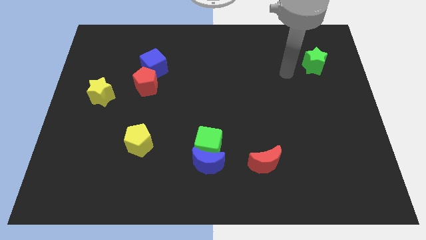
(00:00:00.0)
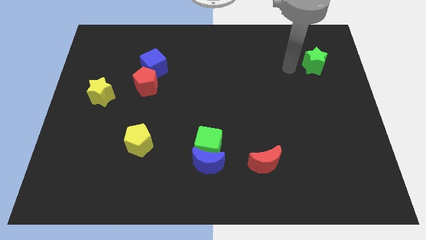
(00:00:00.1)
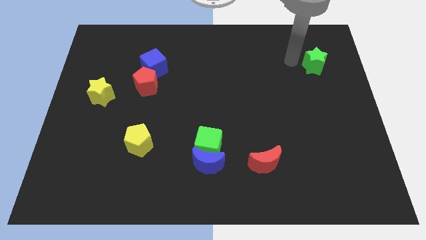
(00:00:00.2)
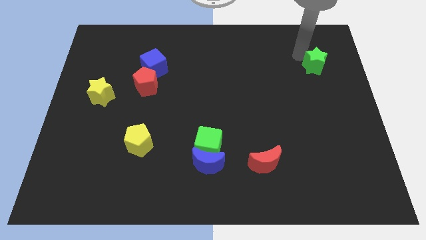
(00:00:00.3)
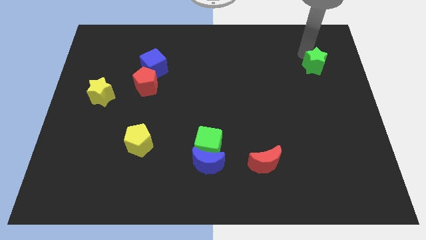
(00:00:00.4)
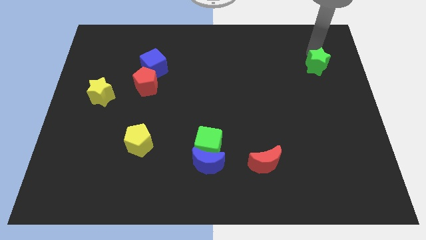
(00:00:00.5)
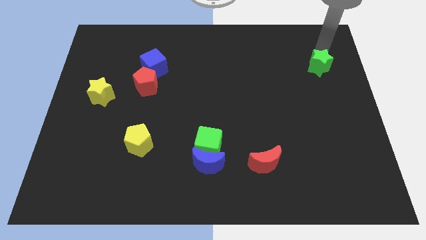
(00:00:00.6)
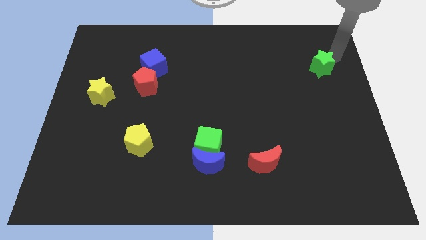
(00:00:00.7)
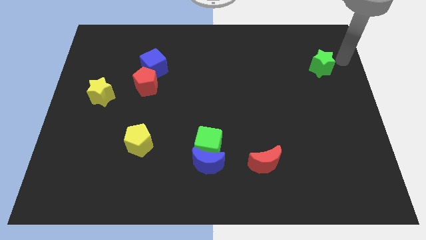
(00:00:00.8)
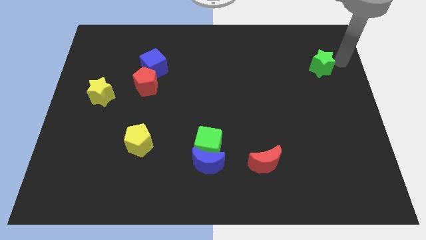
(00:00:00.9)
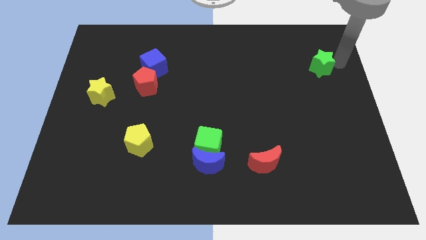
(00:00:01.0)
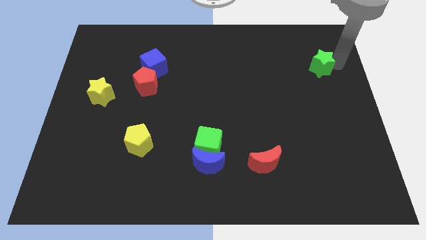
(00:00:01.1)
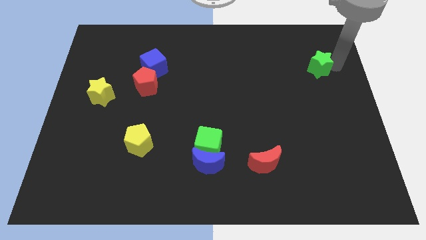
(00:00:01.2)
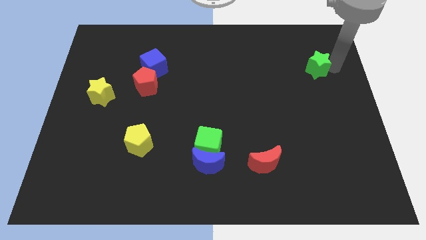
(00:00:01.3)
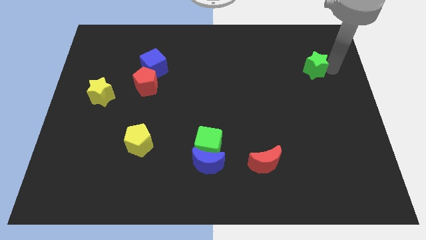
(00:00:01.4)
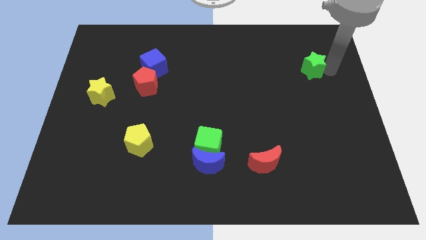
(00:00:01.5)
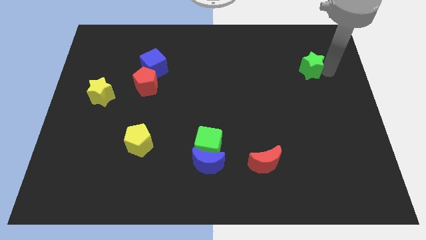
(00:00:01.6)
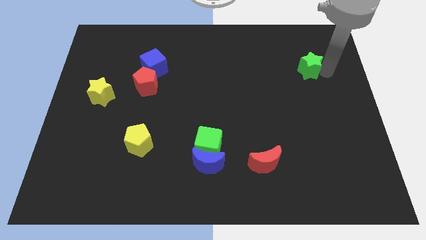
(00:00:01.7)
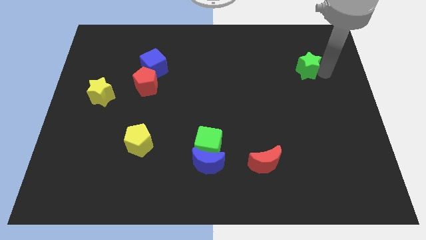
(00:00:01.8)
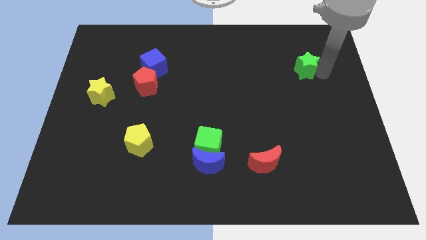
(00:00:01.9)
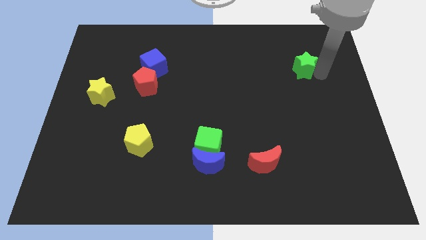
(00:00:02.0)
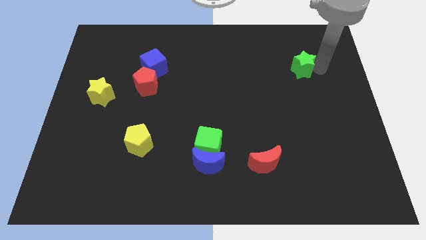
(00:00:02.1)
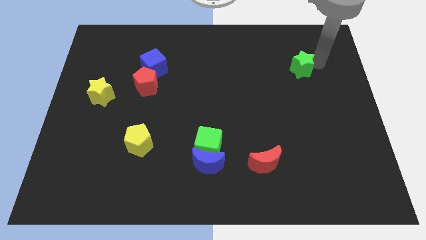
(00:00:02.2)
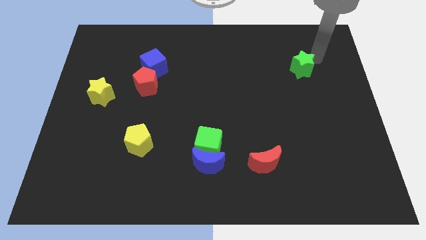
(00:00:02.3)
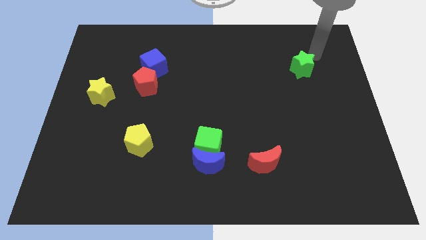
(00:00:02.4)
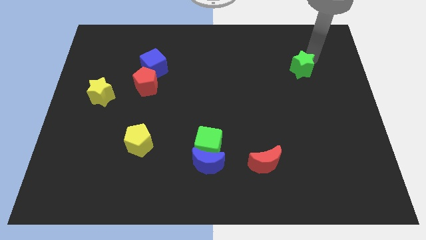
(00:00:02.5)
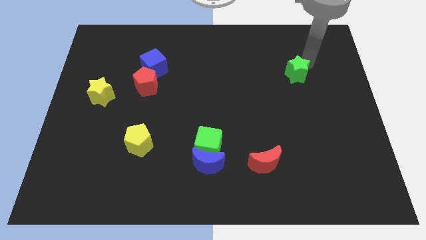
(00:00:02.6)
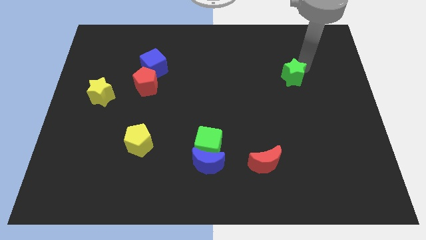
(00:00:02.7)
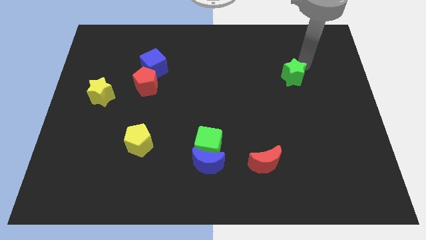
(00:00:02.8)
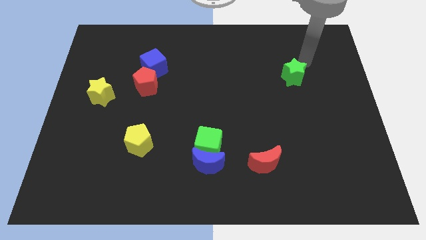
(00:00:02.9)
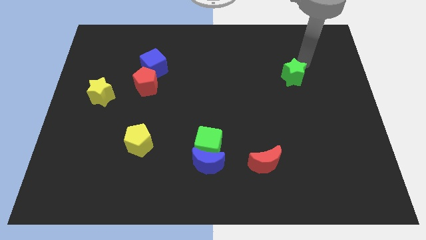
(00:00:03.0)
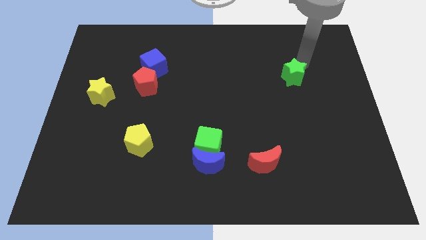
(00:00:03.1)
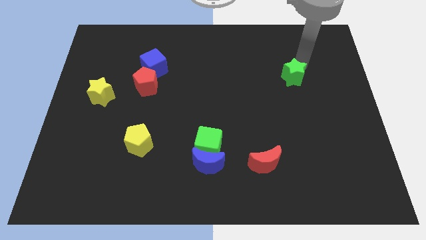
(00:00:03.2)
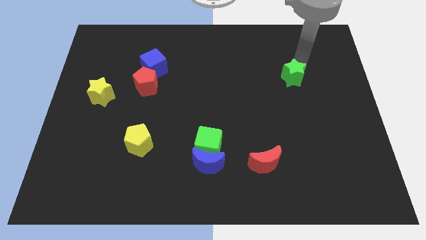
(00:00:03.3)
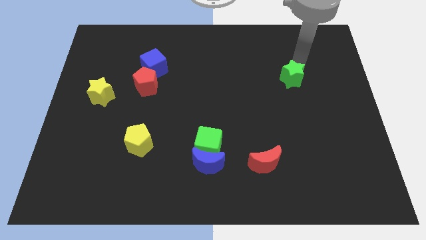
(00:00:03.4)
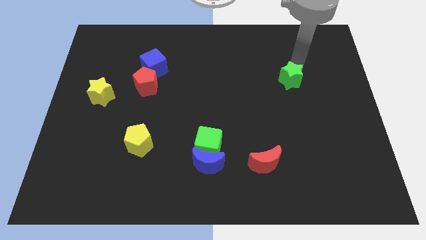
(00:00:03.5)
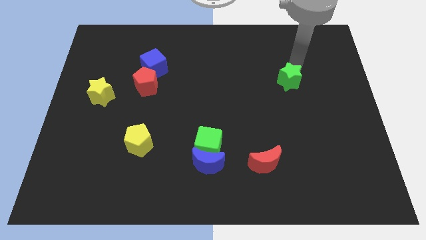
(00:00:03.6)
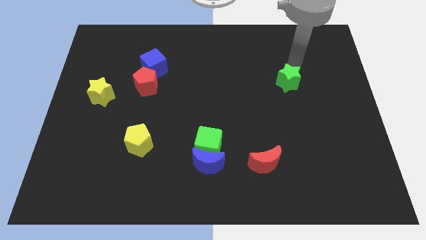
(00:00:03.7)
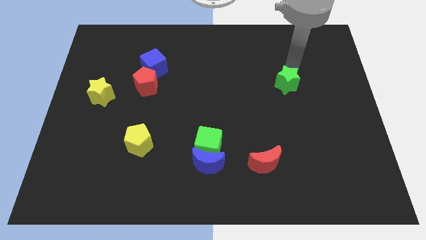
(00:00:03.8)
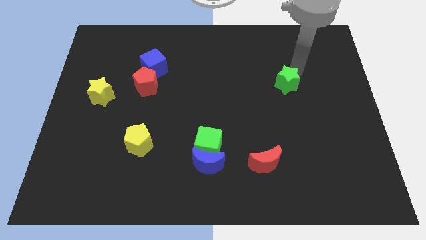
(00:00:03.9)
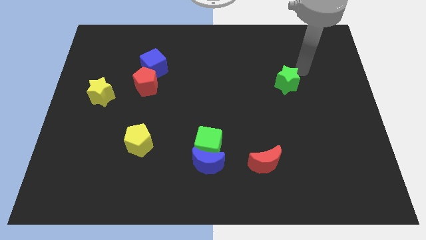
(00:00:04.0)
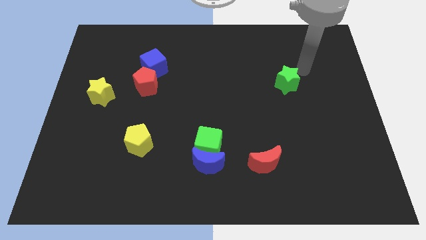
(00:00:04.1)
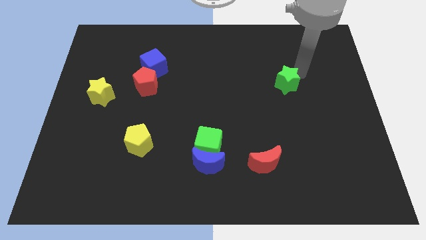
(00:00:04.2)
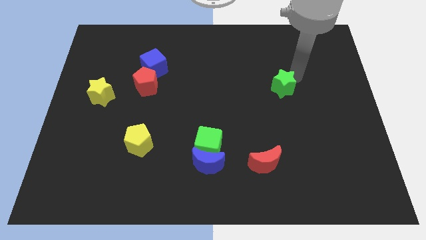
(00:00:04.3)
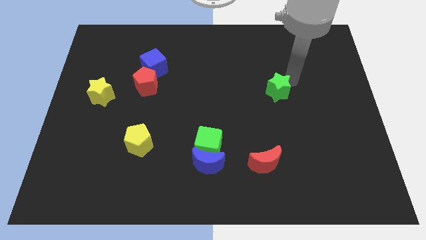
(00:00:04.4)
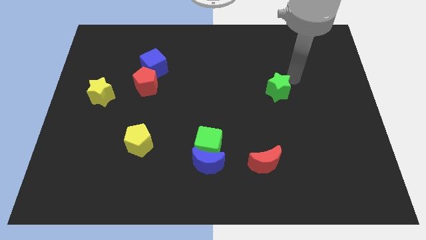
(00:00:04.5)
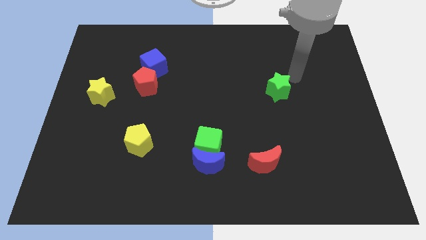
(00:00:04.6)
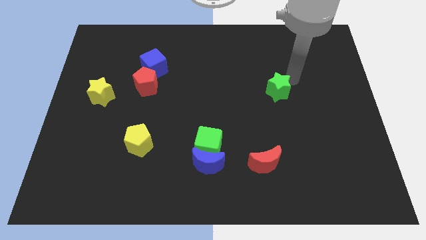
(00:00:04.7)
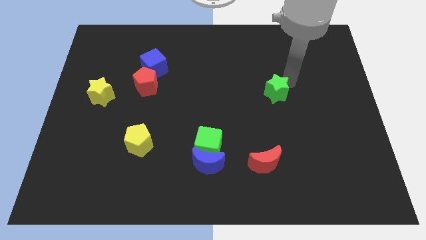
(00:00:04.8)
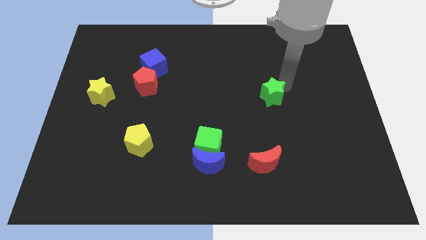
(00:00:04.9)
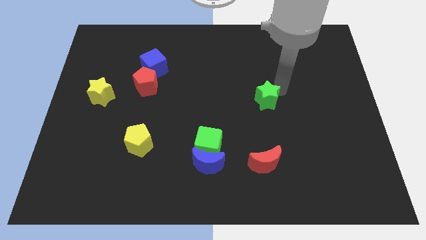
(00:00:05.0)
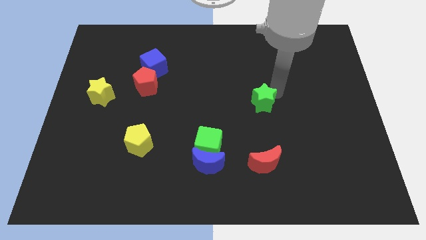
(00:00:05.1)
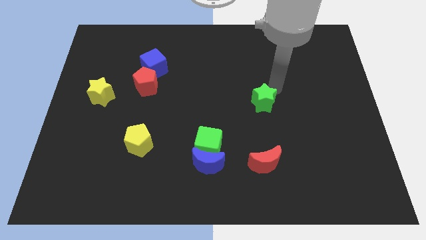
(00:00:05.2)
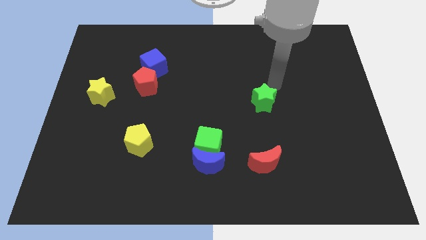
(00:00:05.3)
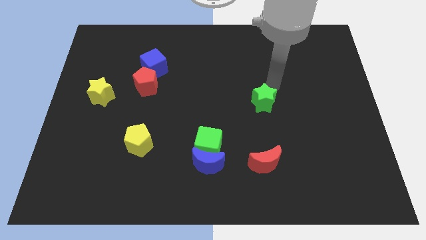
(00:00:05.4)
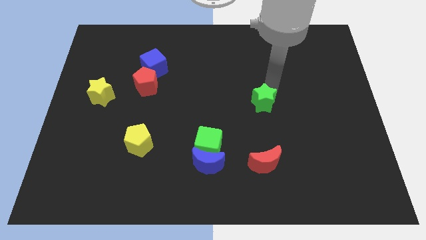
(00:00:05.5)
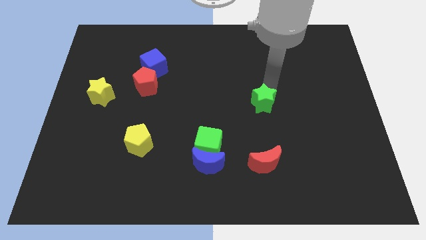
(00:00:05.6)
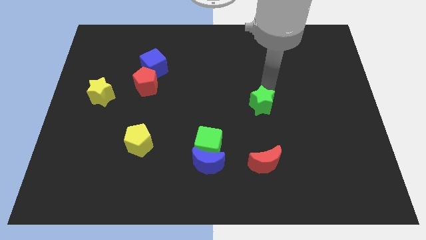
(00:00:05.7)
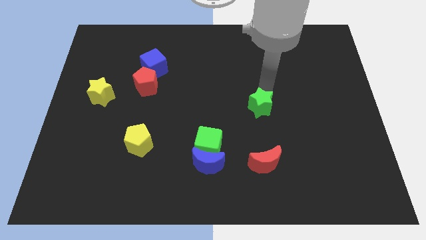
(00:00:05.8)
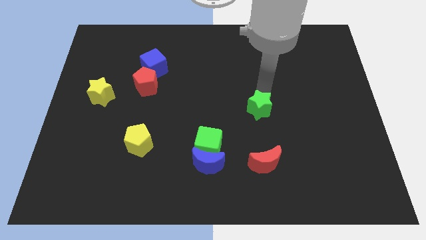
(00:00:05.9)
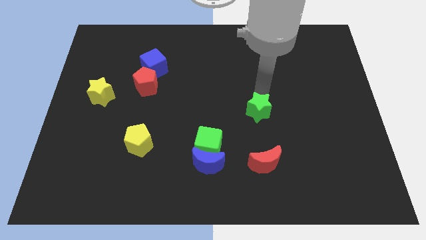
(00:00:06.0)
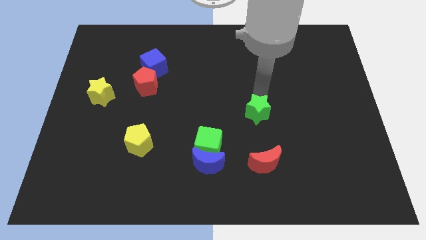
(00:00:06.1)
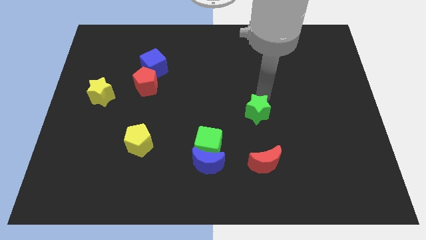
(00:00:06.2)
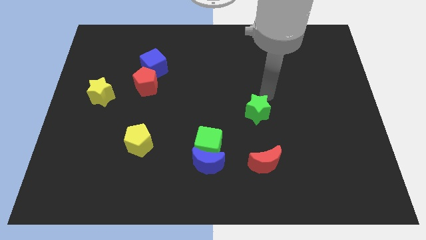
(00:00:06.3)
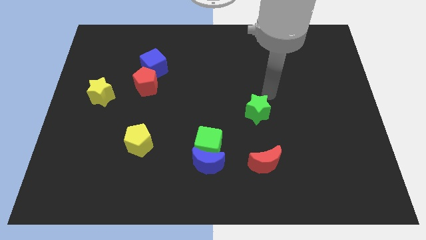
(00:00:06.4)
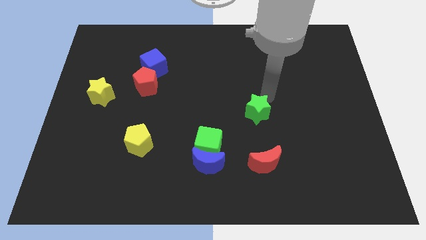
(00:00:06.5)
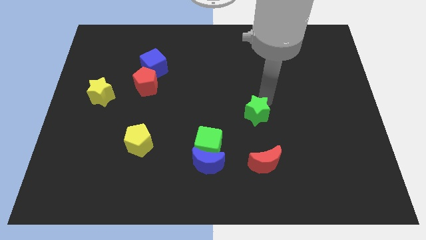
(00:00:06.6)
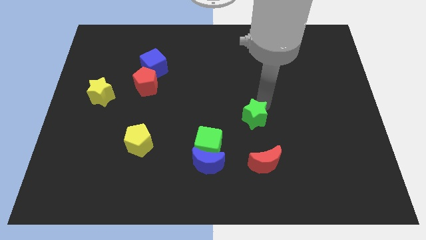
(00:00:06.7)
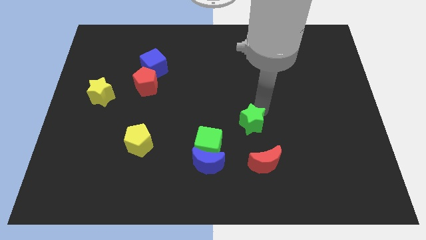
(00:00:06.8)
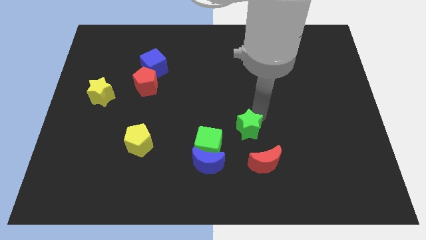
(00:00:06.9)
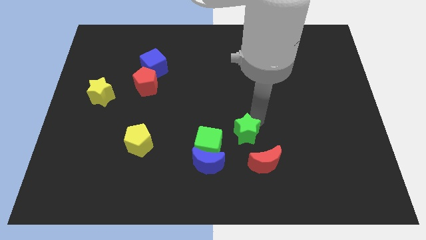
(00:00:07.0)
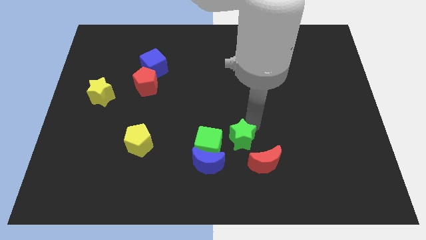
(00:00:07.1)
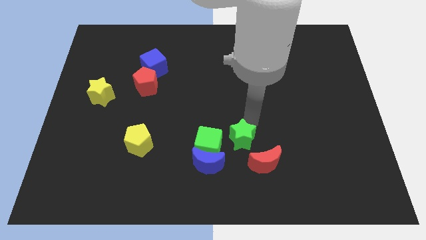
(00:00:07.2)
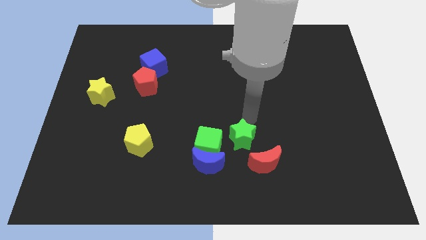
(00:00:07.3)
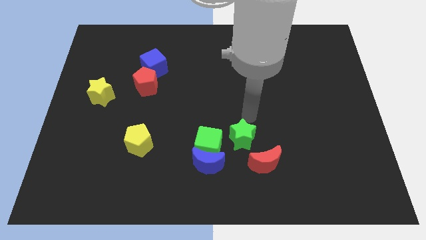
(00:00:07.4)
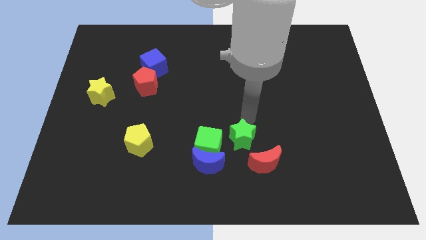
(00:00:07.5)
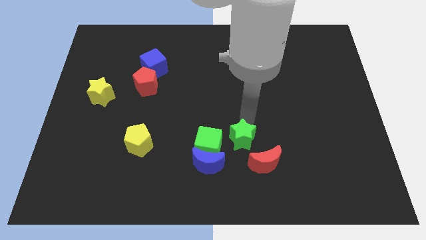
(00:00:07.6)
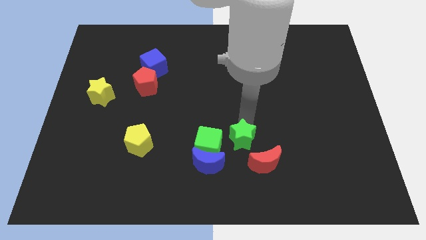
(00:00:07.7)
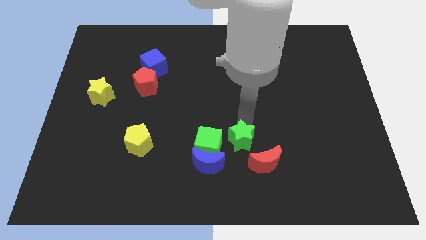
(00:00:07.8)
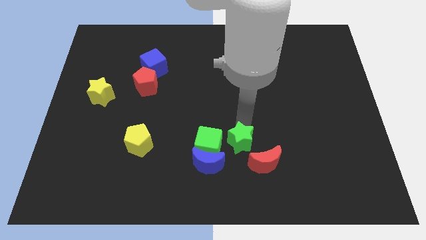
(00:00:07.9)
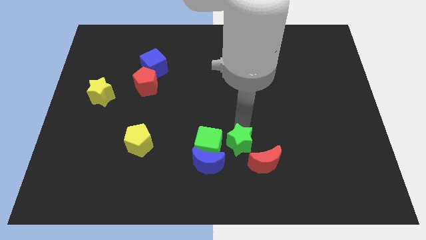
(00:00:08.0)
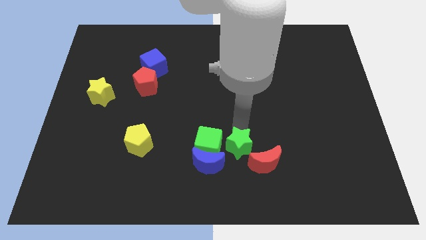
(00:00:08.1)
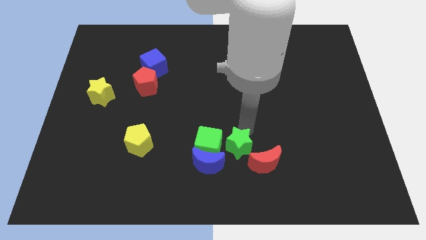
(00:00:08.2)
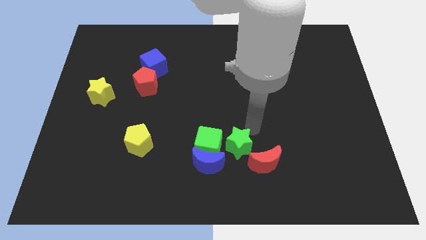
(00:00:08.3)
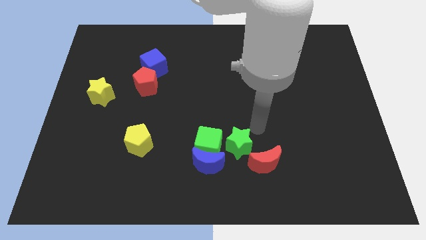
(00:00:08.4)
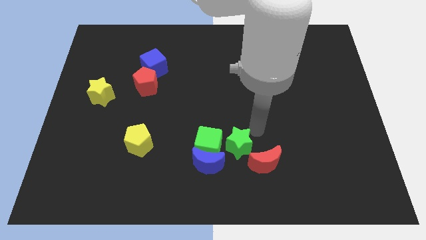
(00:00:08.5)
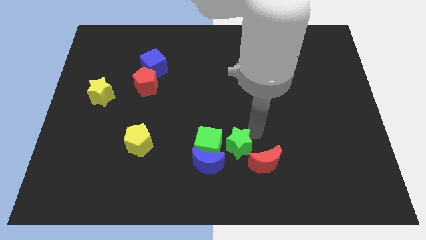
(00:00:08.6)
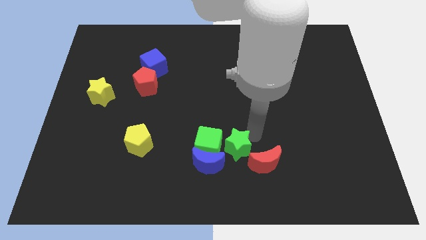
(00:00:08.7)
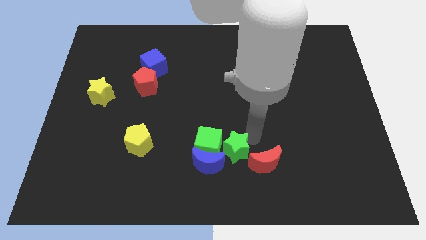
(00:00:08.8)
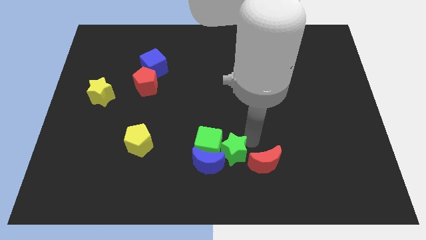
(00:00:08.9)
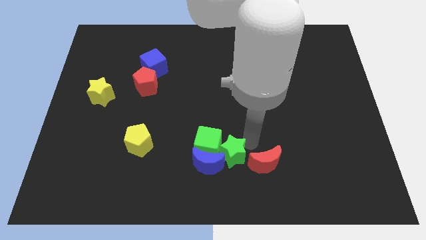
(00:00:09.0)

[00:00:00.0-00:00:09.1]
push the green star towards the blue moon
